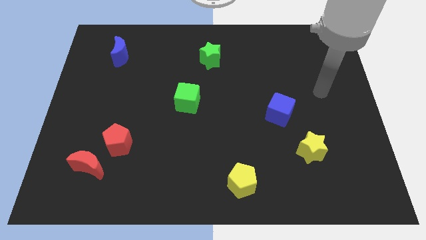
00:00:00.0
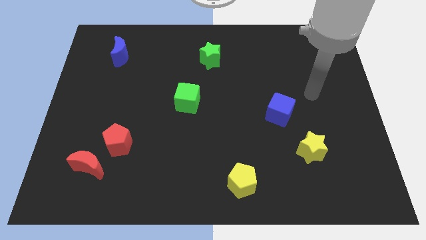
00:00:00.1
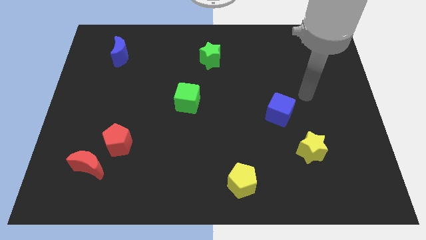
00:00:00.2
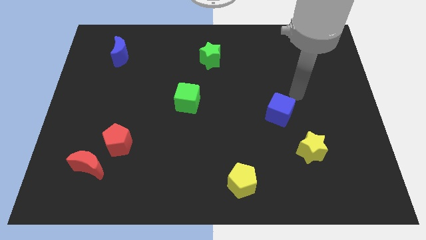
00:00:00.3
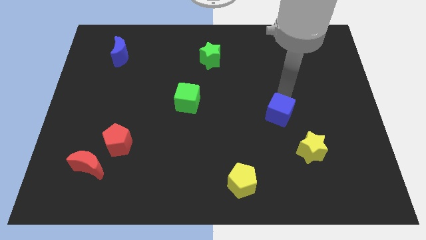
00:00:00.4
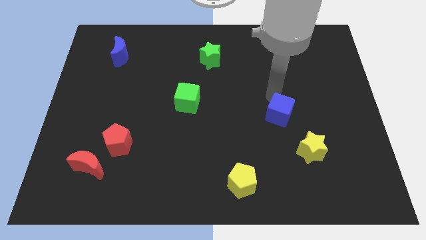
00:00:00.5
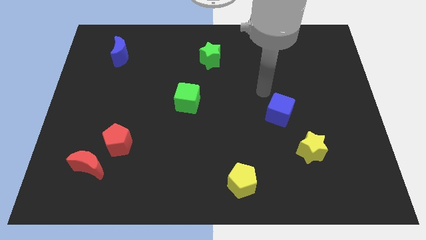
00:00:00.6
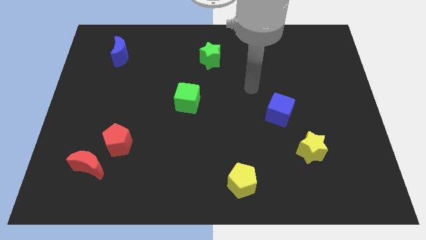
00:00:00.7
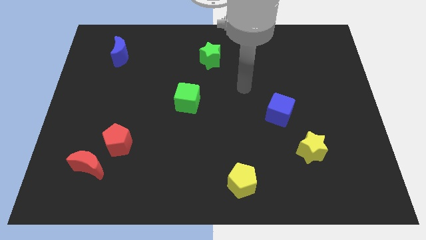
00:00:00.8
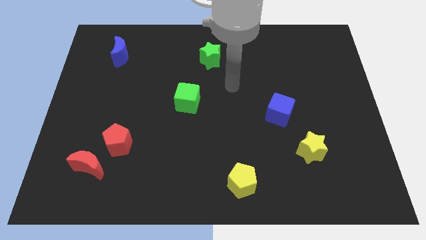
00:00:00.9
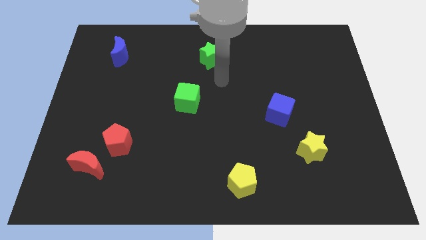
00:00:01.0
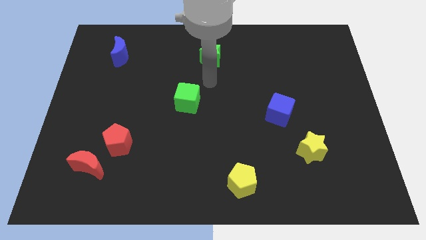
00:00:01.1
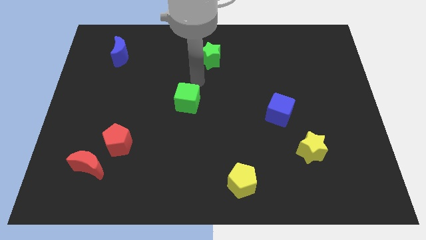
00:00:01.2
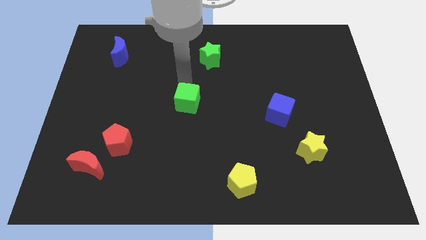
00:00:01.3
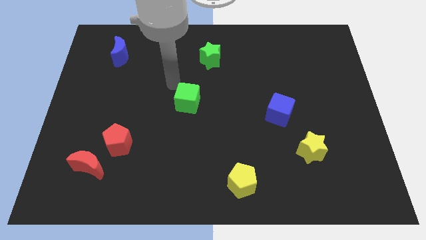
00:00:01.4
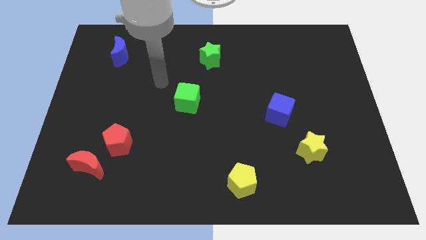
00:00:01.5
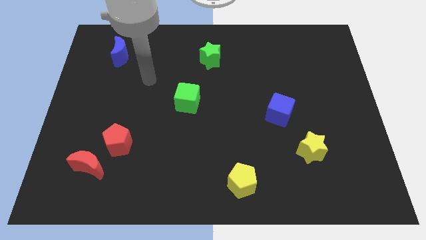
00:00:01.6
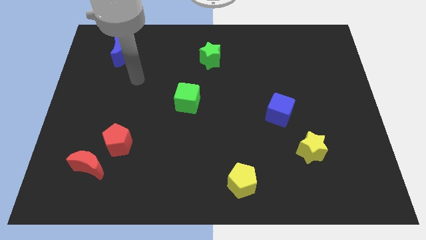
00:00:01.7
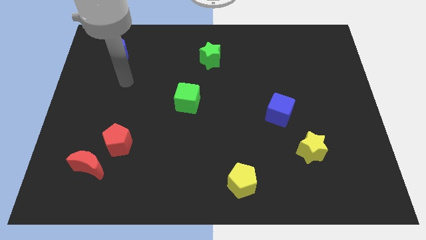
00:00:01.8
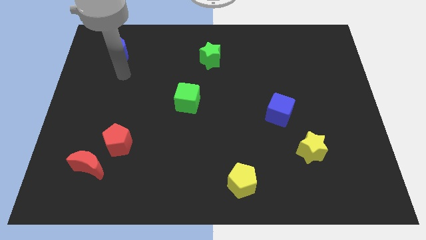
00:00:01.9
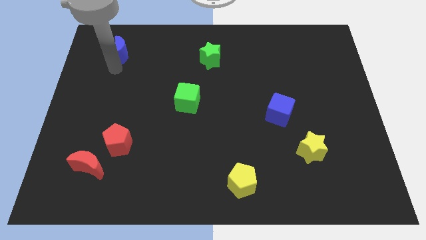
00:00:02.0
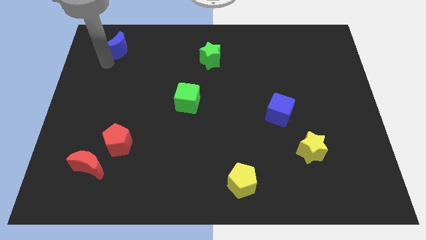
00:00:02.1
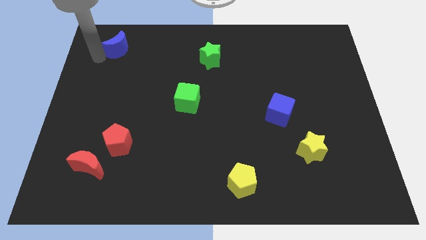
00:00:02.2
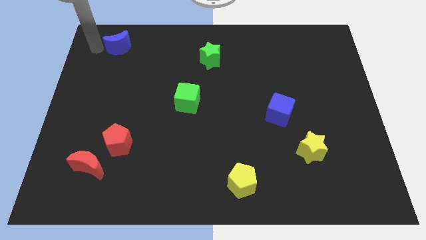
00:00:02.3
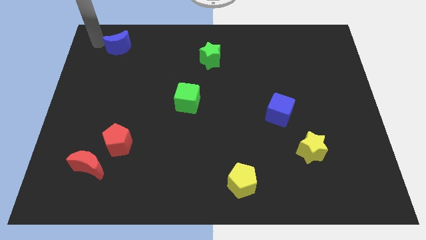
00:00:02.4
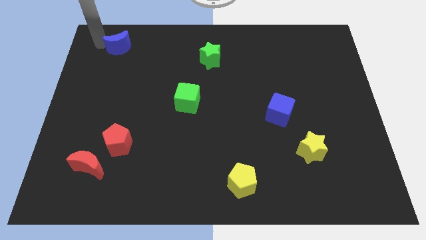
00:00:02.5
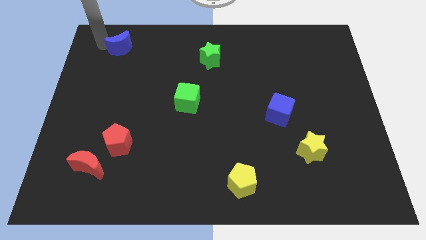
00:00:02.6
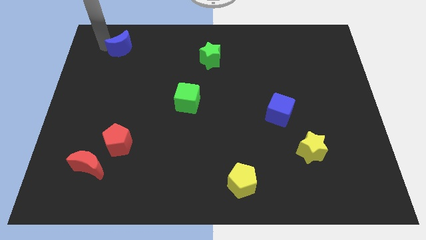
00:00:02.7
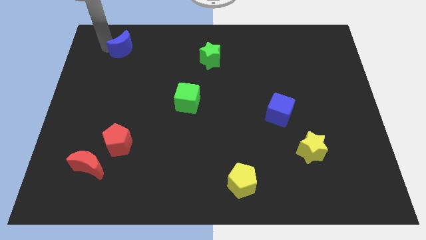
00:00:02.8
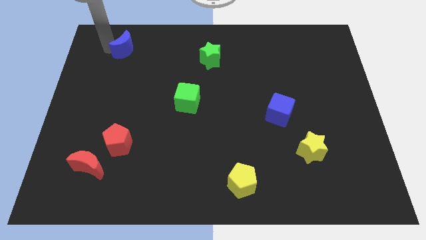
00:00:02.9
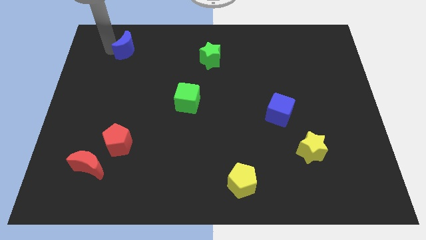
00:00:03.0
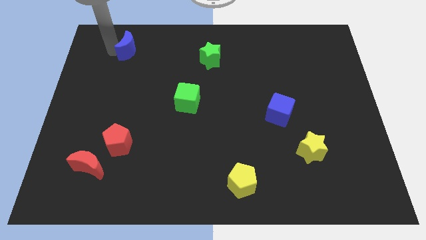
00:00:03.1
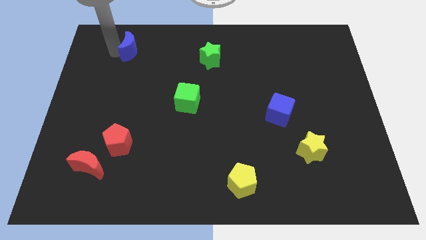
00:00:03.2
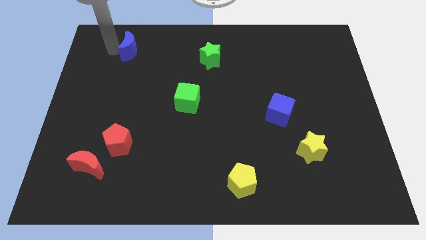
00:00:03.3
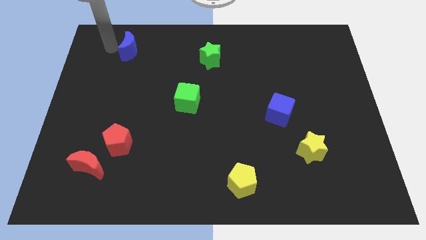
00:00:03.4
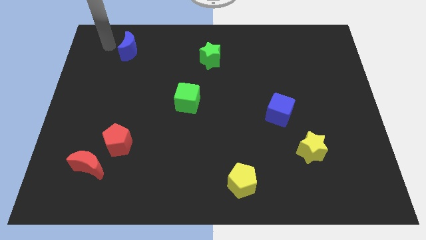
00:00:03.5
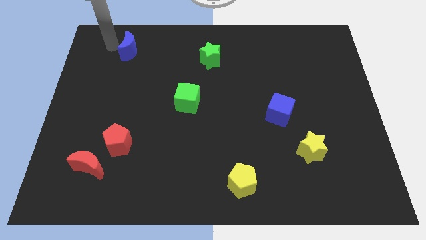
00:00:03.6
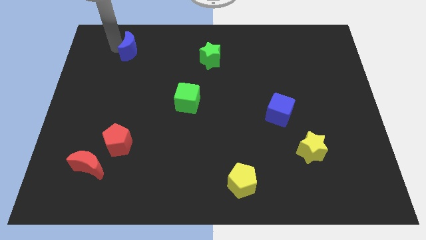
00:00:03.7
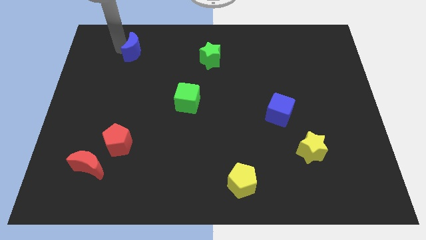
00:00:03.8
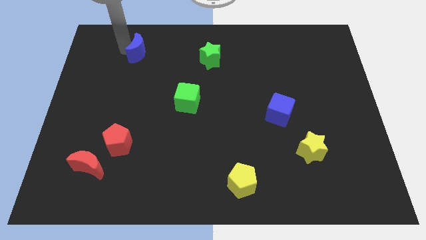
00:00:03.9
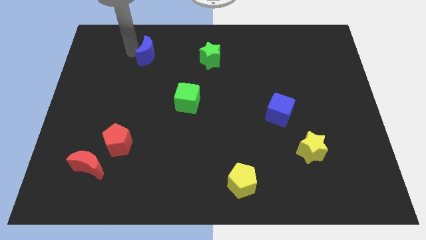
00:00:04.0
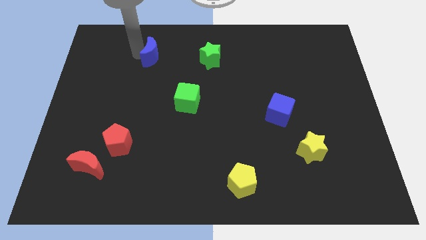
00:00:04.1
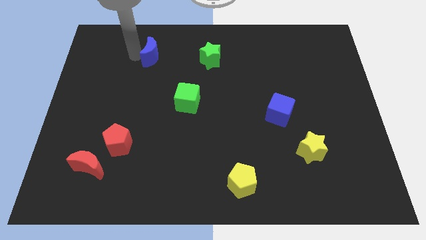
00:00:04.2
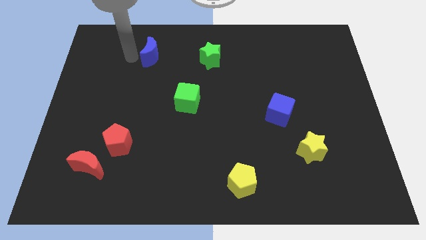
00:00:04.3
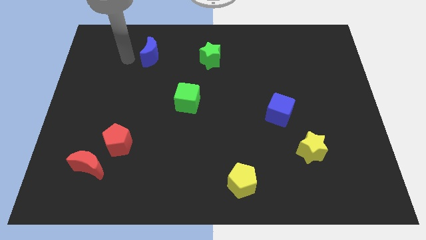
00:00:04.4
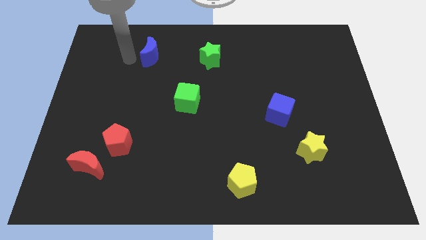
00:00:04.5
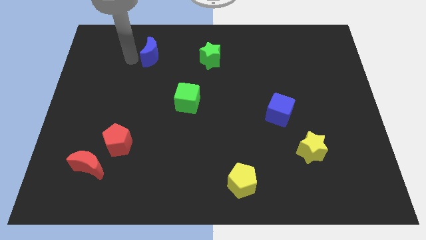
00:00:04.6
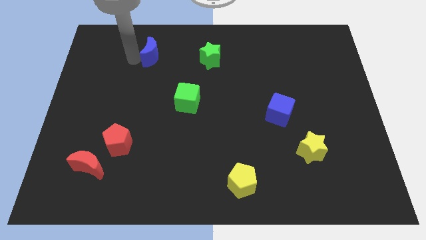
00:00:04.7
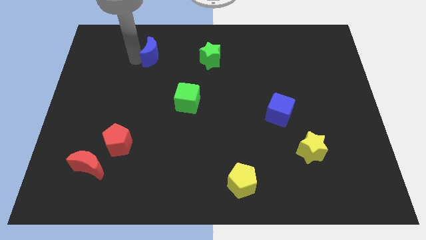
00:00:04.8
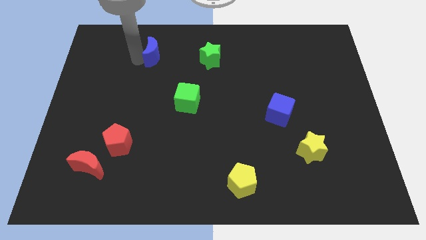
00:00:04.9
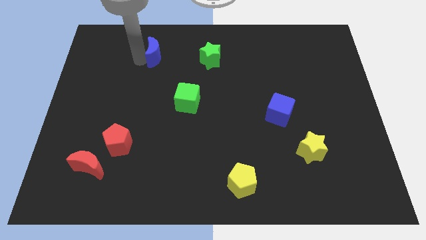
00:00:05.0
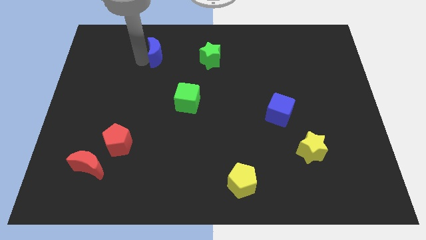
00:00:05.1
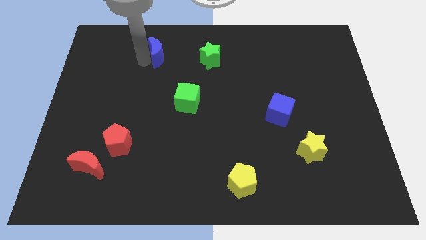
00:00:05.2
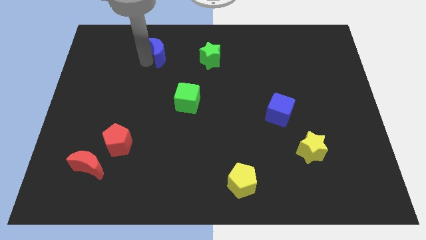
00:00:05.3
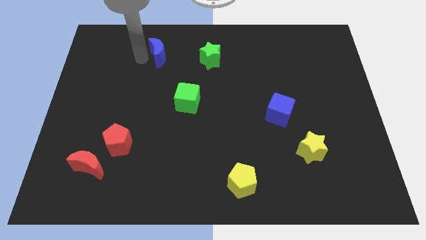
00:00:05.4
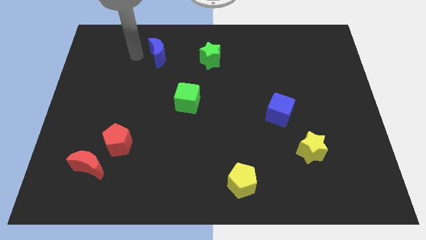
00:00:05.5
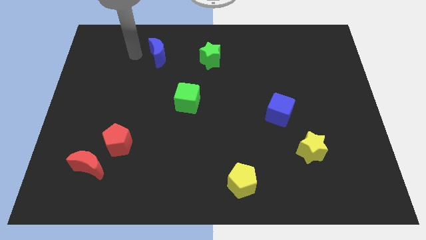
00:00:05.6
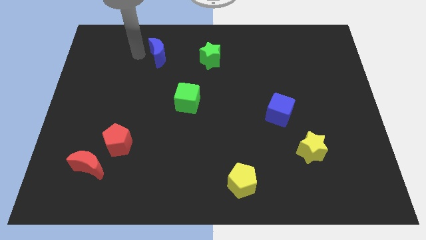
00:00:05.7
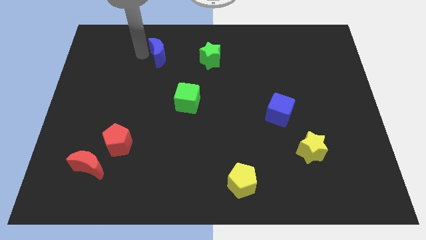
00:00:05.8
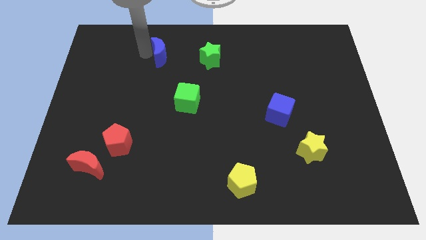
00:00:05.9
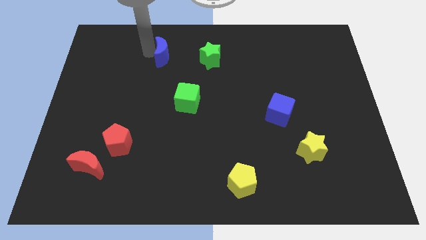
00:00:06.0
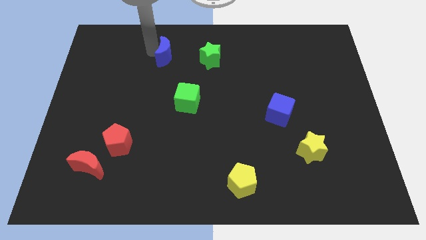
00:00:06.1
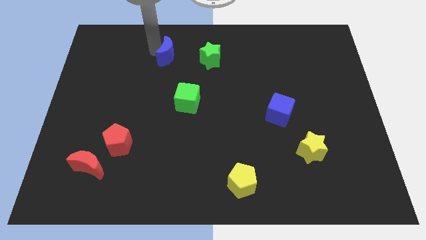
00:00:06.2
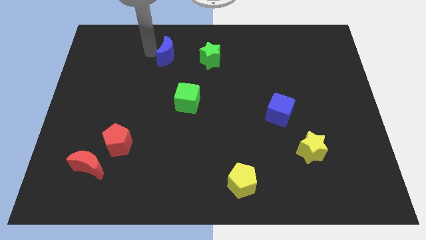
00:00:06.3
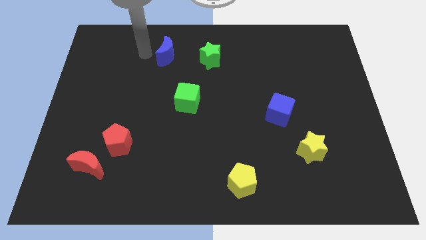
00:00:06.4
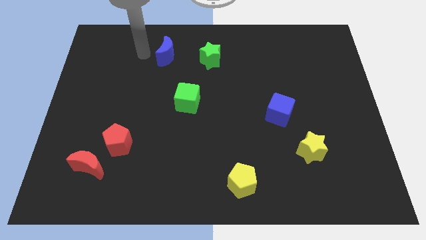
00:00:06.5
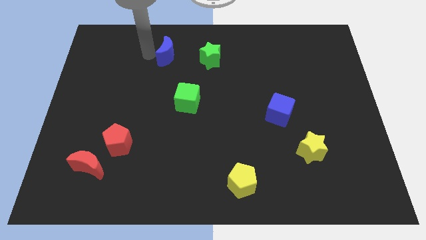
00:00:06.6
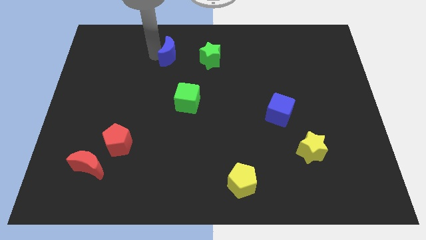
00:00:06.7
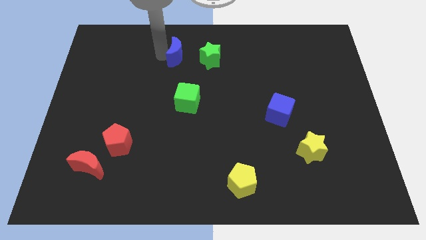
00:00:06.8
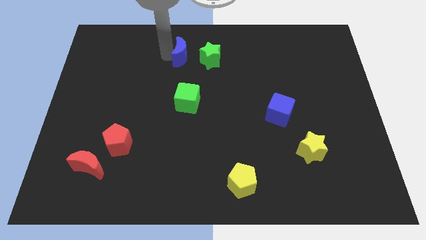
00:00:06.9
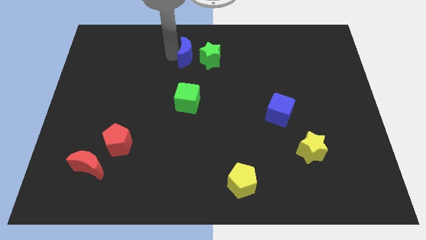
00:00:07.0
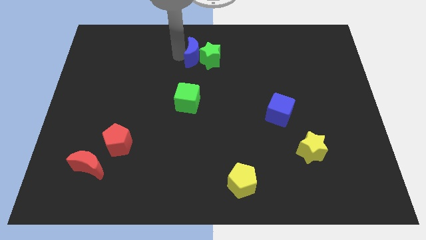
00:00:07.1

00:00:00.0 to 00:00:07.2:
slide the blue moon next to the green star
